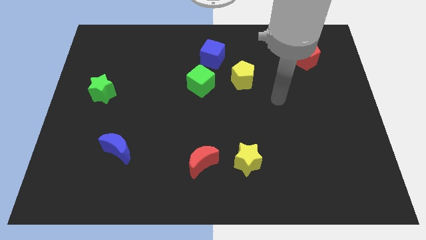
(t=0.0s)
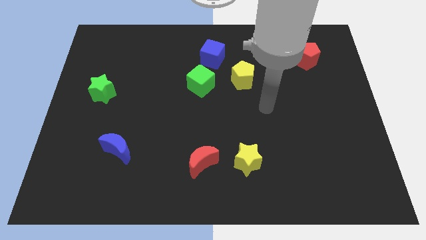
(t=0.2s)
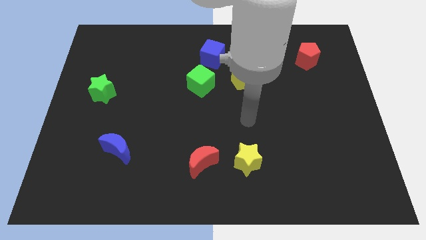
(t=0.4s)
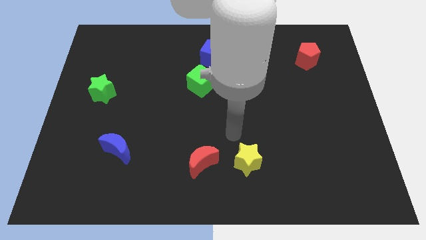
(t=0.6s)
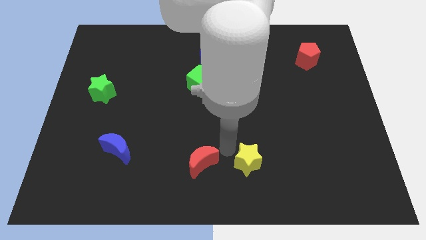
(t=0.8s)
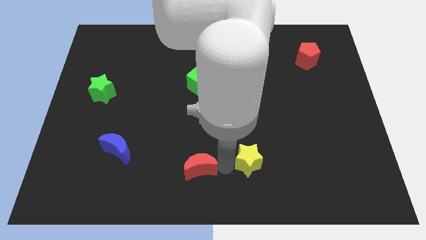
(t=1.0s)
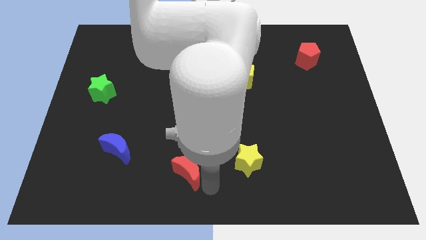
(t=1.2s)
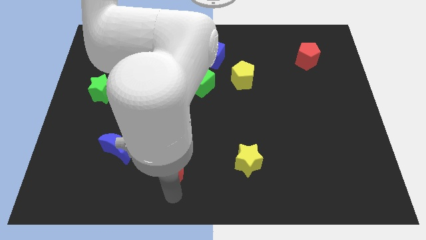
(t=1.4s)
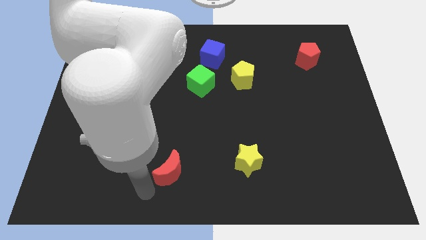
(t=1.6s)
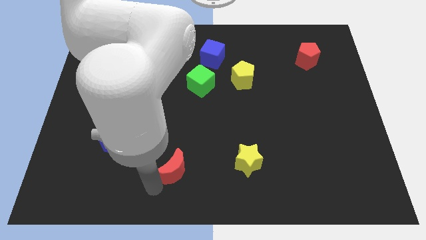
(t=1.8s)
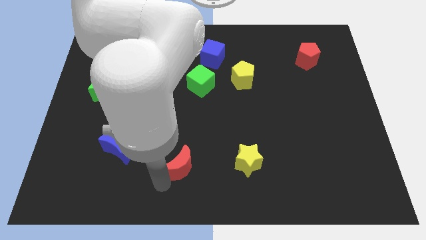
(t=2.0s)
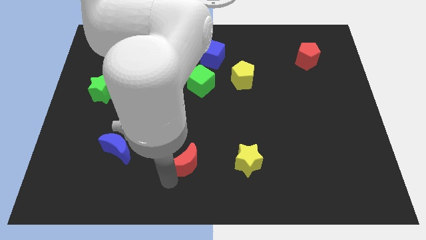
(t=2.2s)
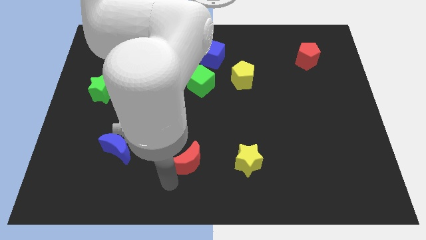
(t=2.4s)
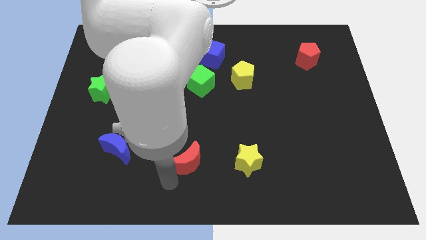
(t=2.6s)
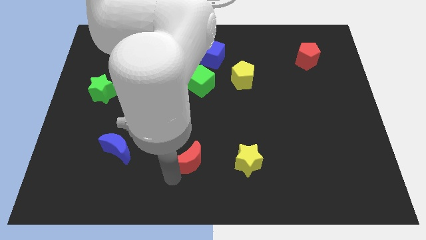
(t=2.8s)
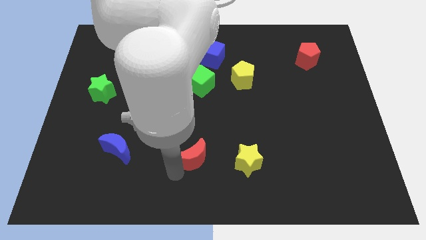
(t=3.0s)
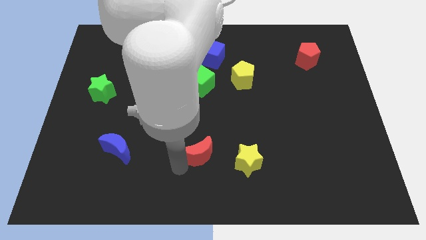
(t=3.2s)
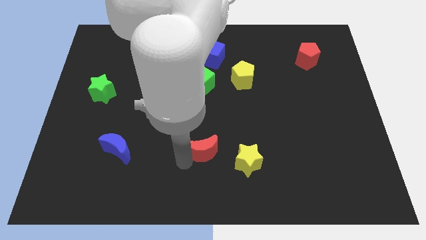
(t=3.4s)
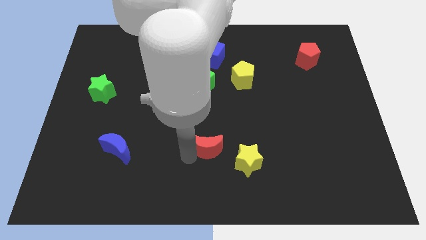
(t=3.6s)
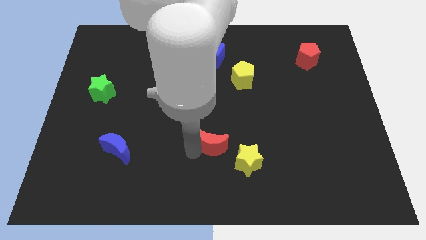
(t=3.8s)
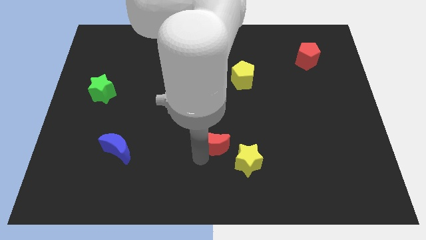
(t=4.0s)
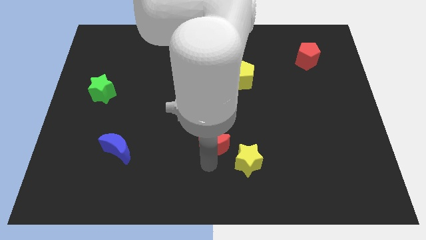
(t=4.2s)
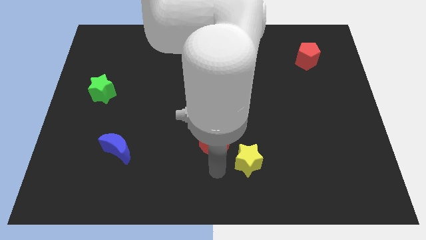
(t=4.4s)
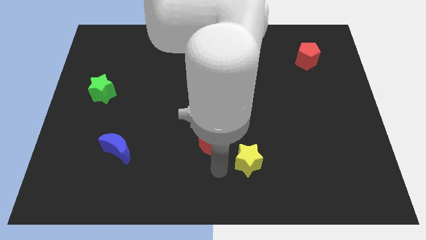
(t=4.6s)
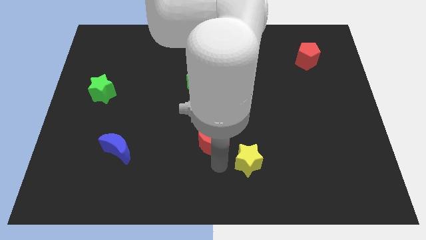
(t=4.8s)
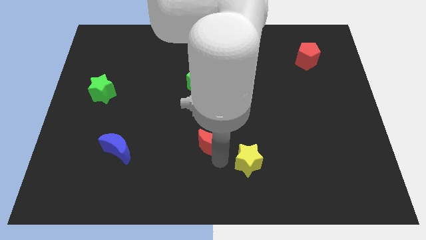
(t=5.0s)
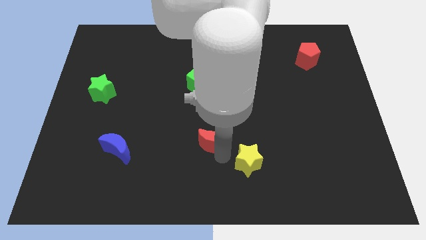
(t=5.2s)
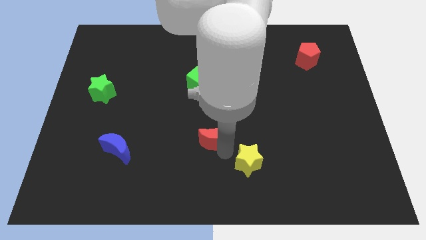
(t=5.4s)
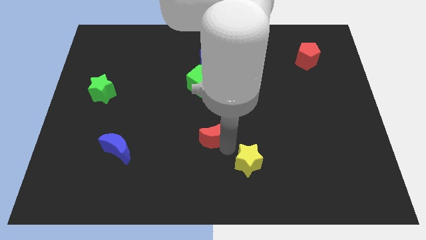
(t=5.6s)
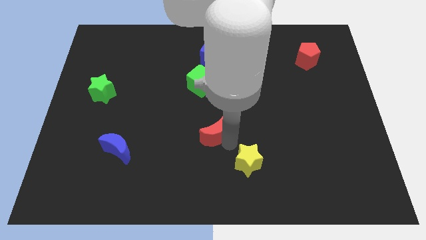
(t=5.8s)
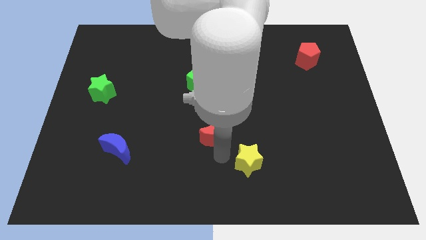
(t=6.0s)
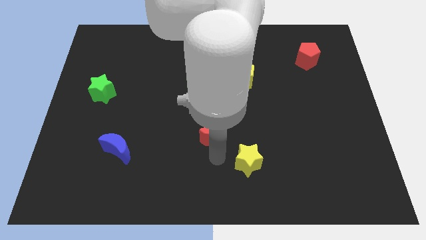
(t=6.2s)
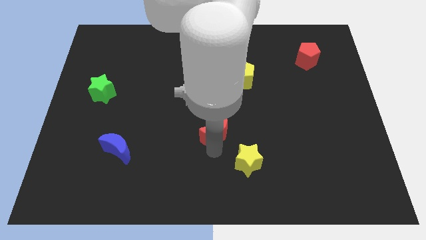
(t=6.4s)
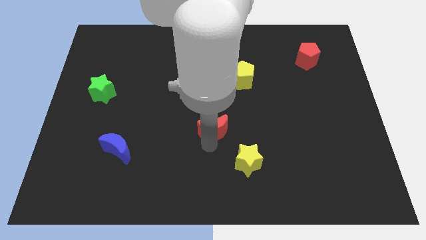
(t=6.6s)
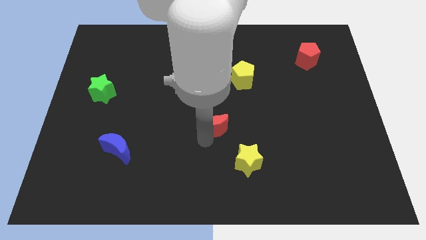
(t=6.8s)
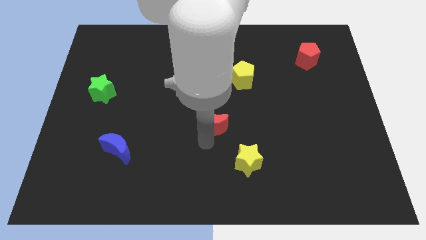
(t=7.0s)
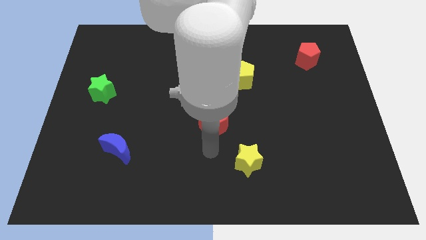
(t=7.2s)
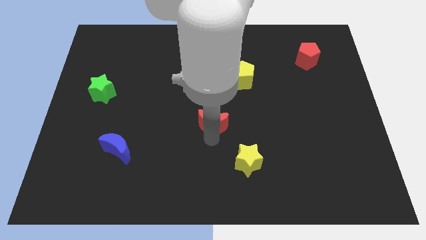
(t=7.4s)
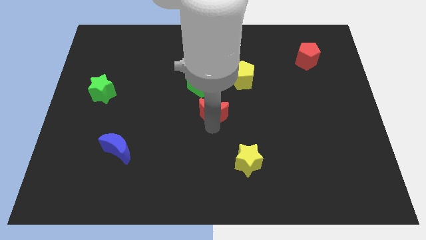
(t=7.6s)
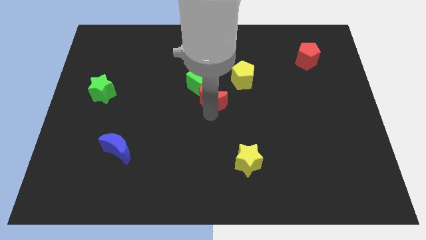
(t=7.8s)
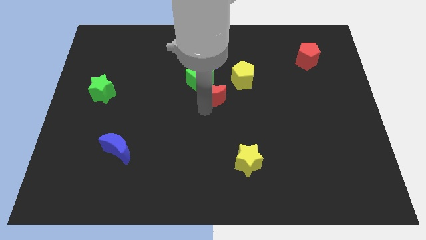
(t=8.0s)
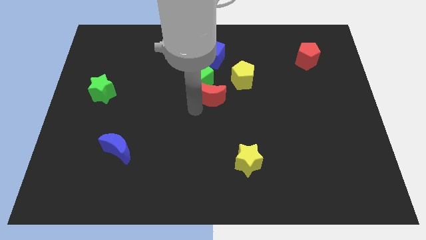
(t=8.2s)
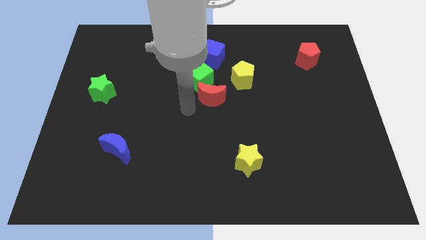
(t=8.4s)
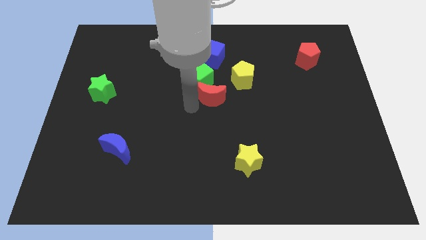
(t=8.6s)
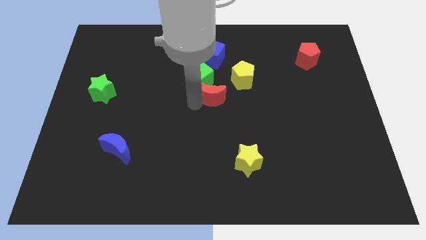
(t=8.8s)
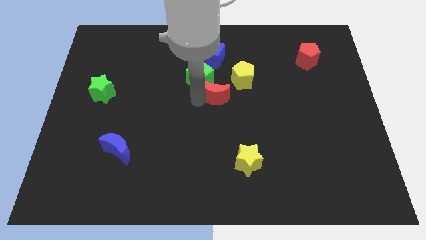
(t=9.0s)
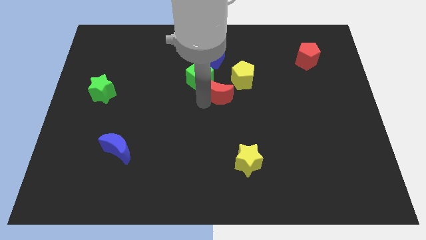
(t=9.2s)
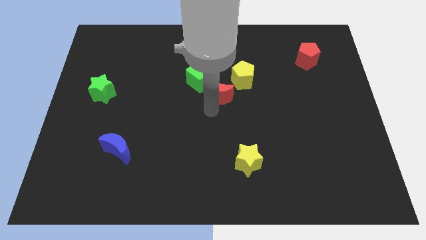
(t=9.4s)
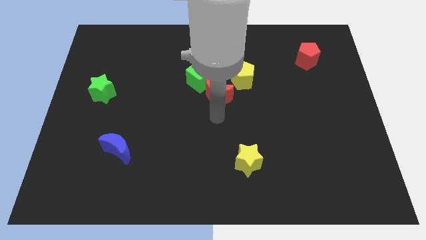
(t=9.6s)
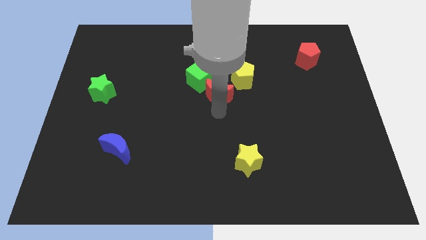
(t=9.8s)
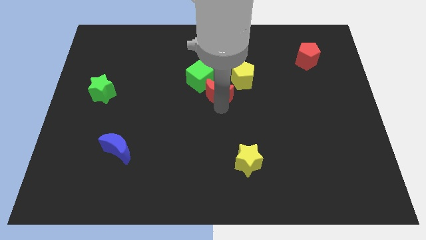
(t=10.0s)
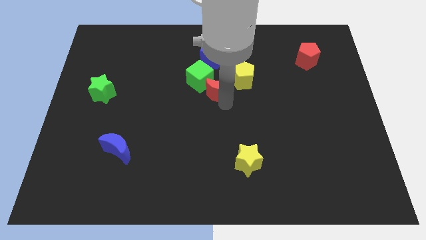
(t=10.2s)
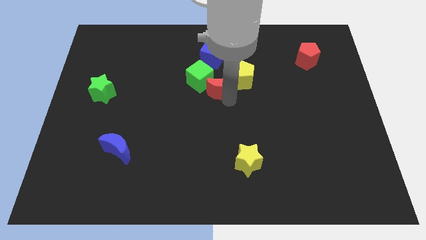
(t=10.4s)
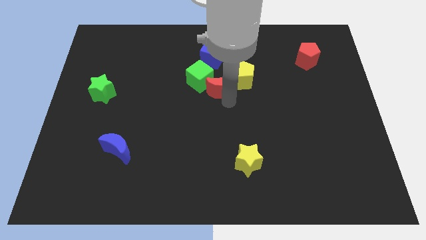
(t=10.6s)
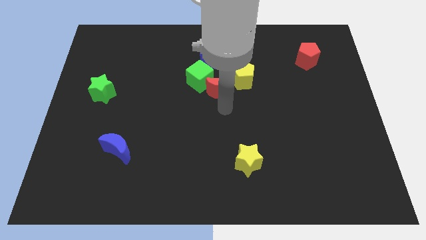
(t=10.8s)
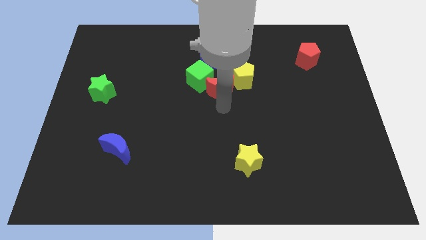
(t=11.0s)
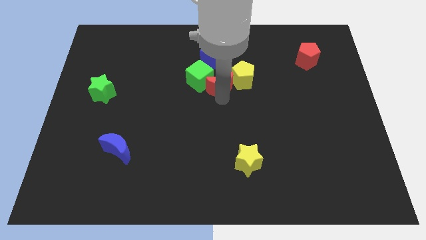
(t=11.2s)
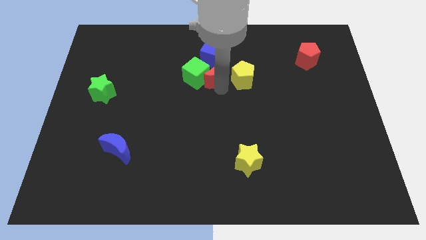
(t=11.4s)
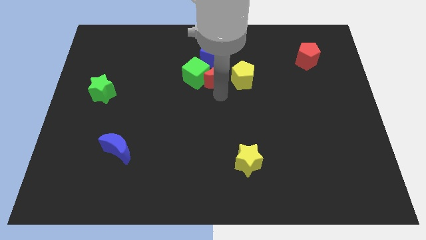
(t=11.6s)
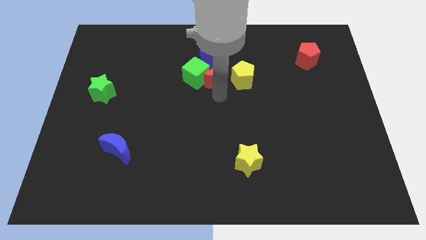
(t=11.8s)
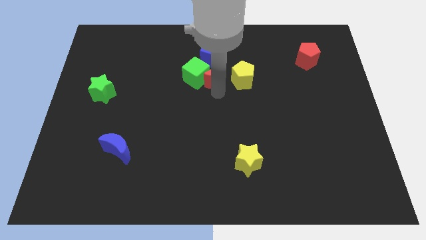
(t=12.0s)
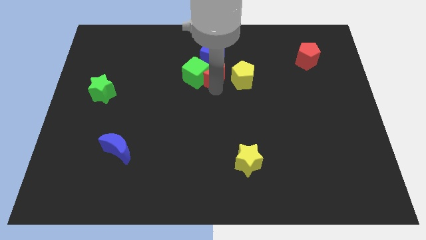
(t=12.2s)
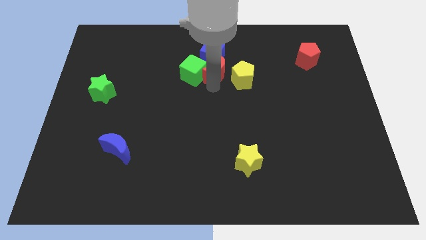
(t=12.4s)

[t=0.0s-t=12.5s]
move the red moon next to the blue cube

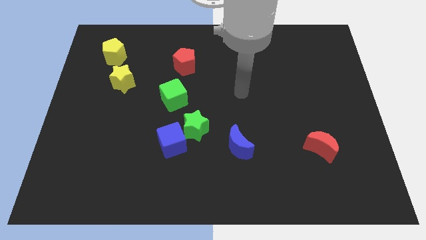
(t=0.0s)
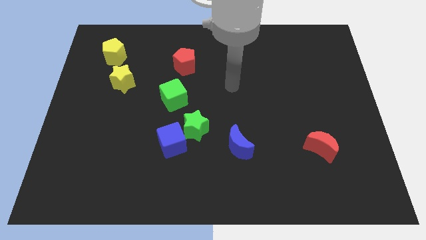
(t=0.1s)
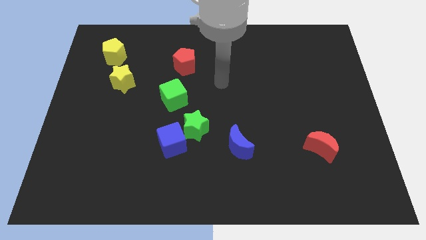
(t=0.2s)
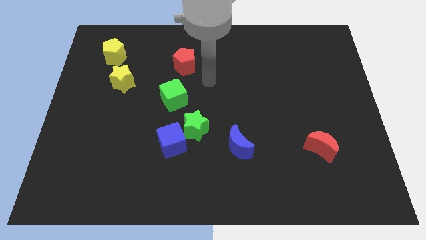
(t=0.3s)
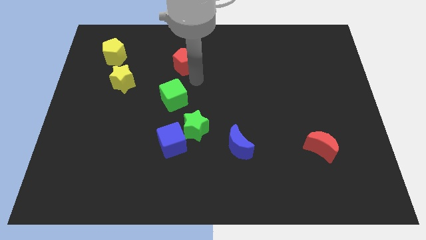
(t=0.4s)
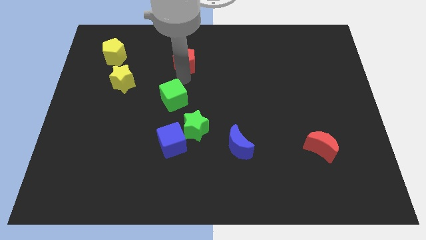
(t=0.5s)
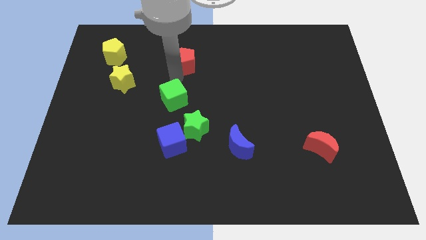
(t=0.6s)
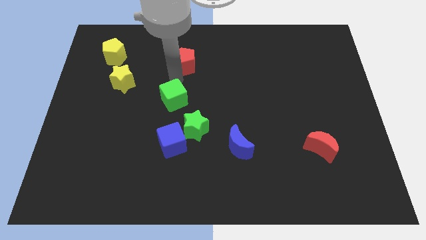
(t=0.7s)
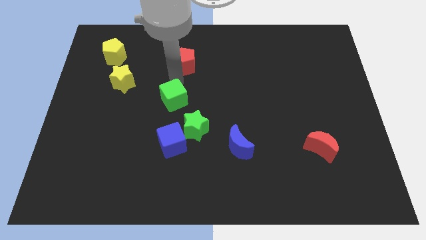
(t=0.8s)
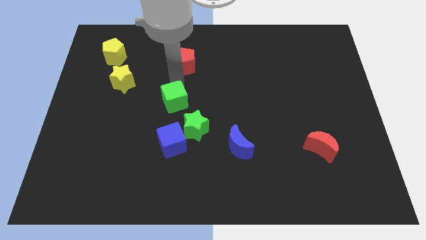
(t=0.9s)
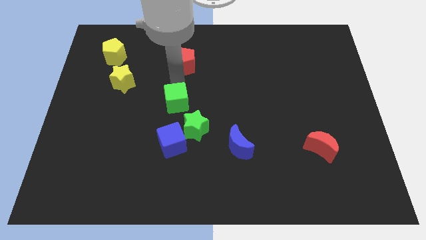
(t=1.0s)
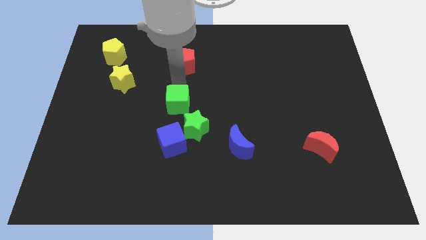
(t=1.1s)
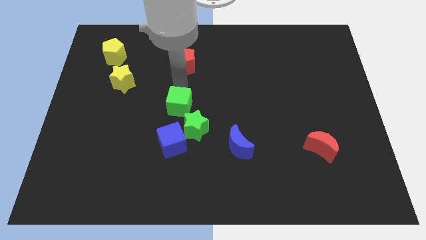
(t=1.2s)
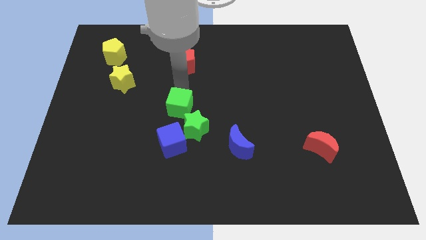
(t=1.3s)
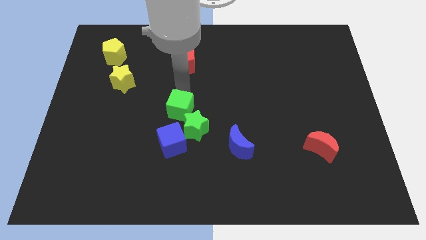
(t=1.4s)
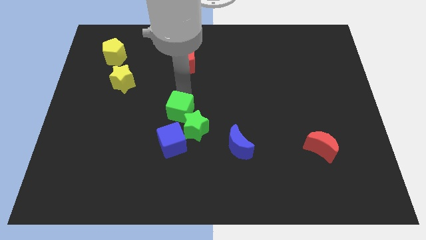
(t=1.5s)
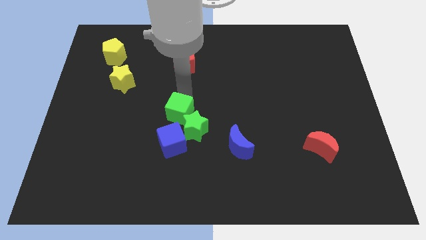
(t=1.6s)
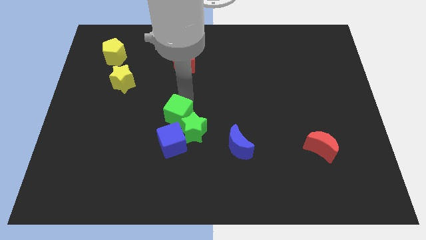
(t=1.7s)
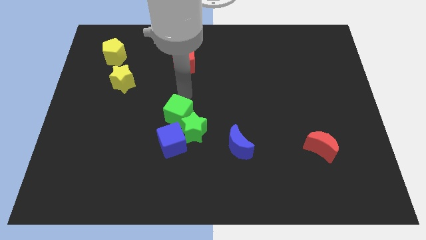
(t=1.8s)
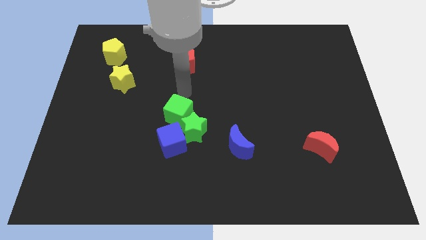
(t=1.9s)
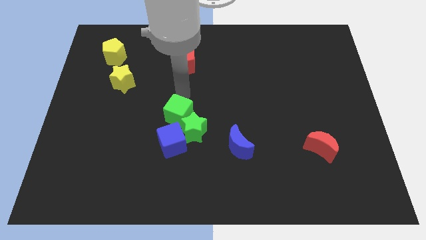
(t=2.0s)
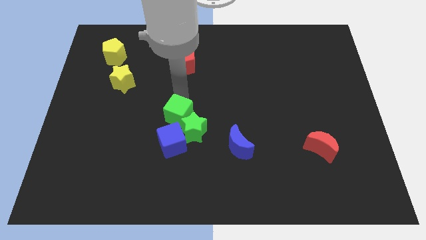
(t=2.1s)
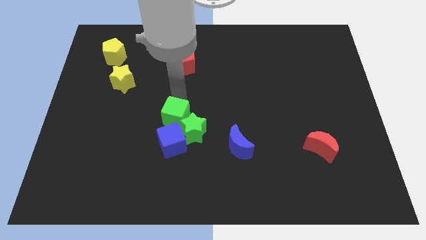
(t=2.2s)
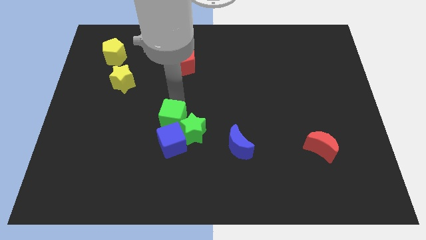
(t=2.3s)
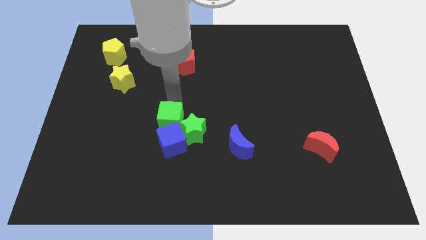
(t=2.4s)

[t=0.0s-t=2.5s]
put the green cube close to the blue cube

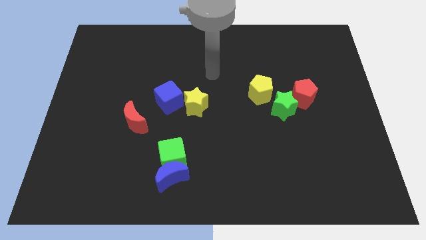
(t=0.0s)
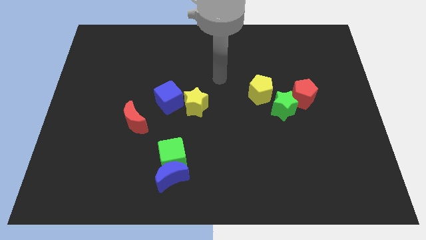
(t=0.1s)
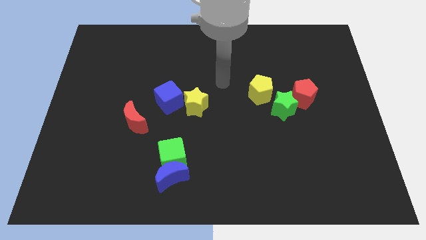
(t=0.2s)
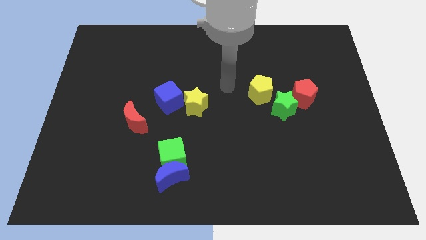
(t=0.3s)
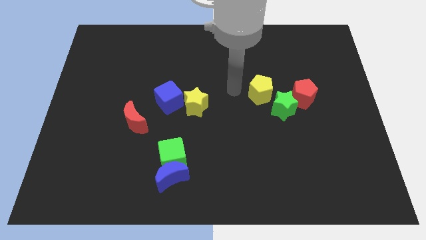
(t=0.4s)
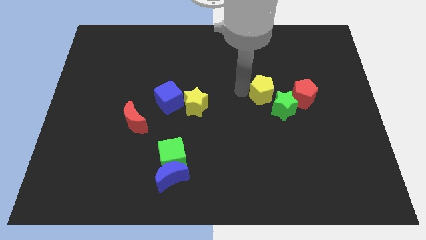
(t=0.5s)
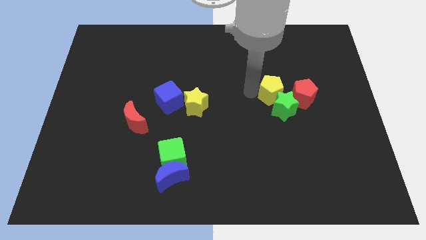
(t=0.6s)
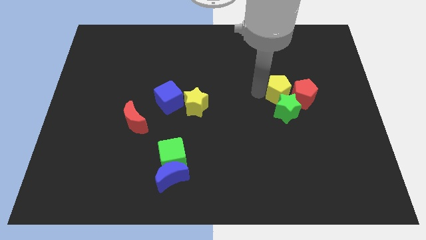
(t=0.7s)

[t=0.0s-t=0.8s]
push the yellow pentagon to the red pentagon
